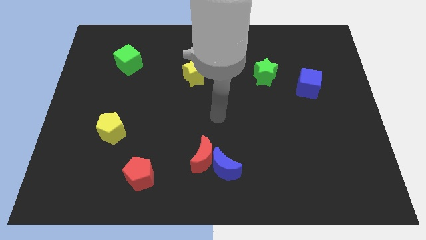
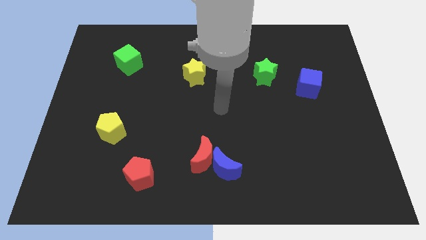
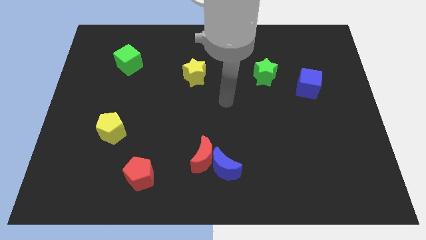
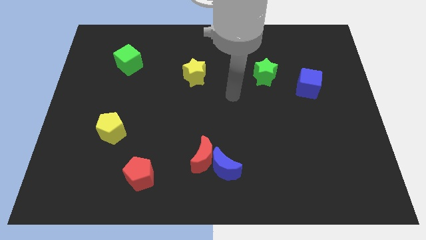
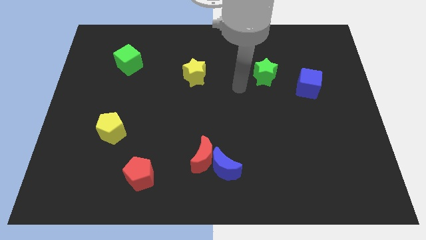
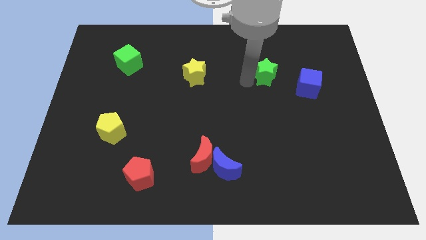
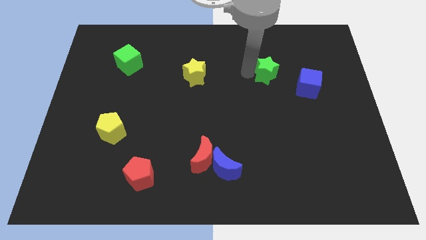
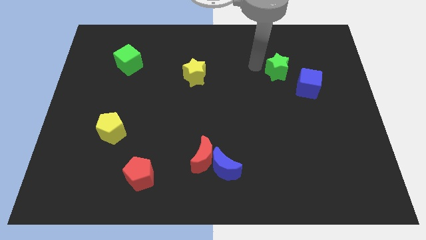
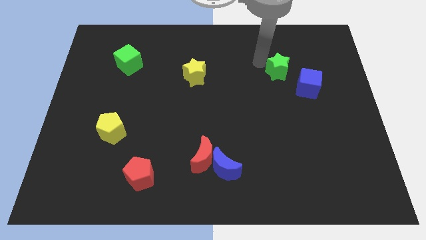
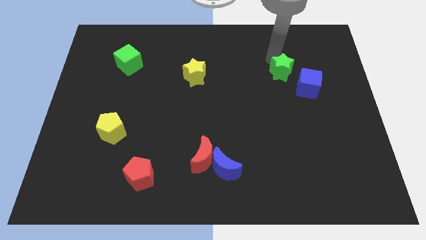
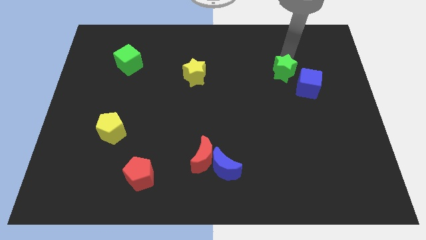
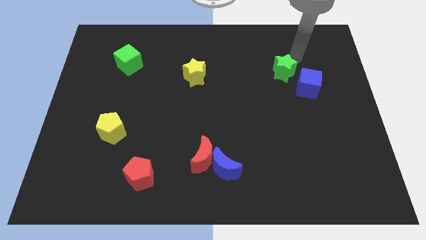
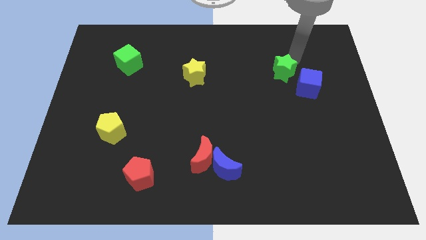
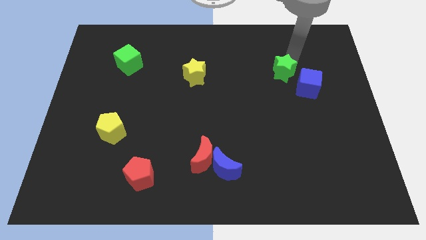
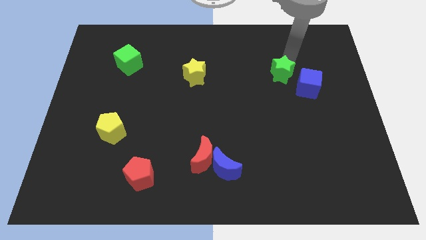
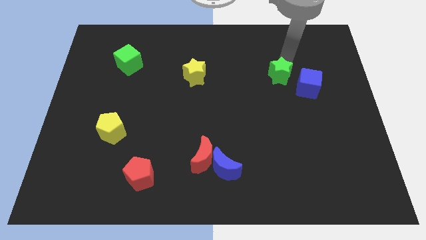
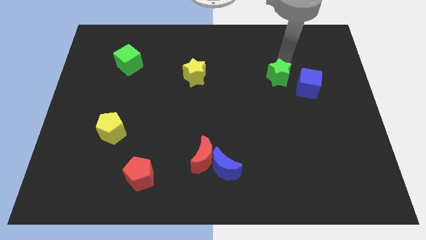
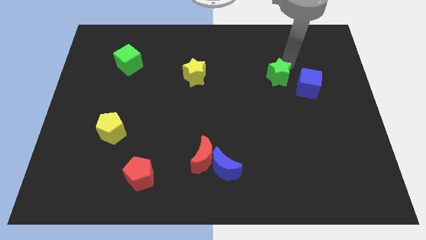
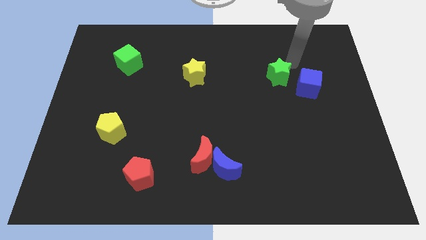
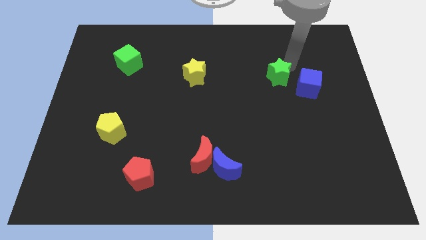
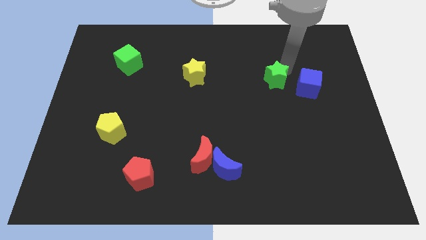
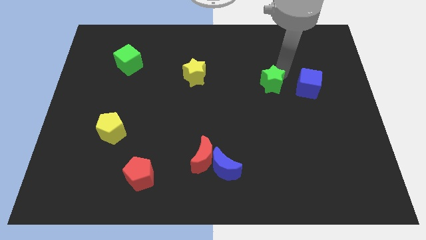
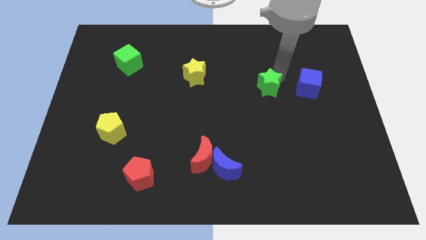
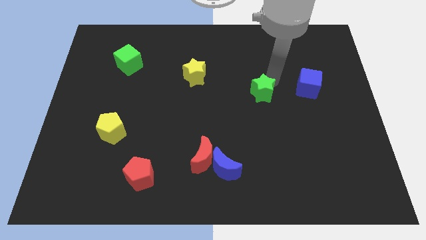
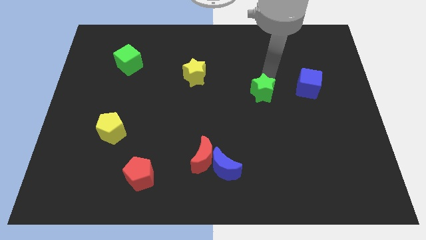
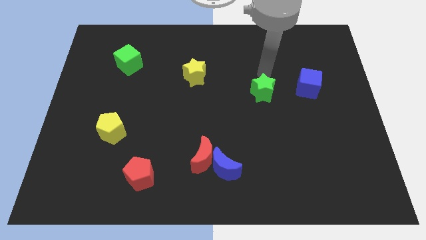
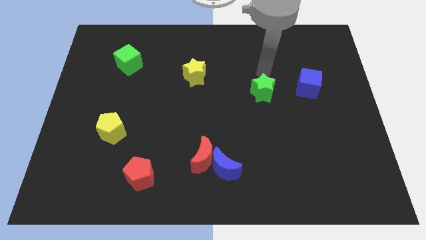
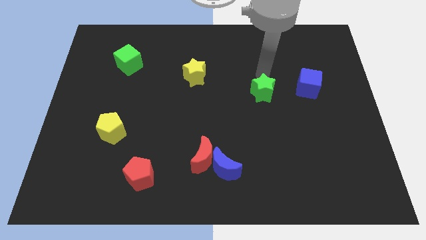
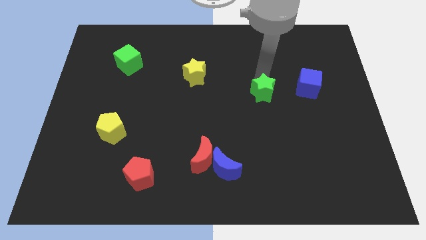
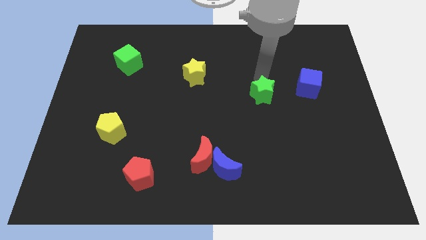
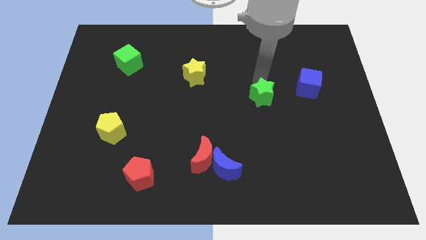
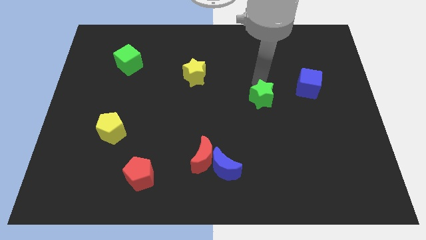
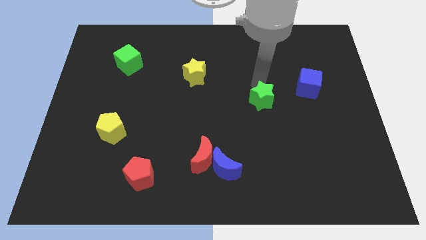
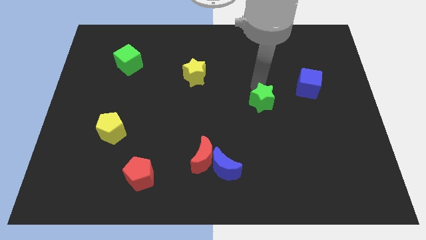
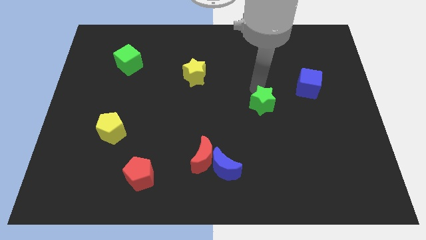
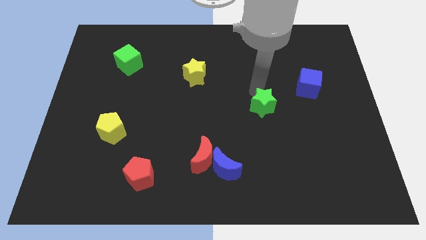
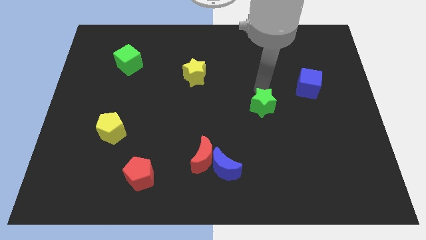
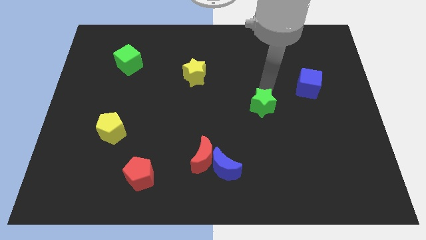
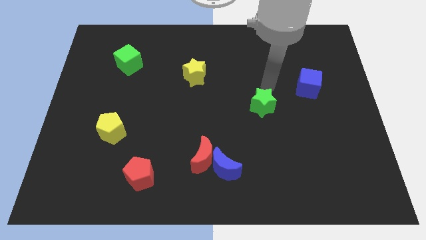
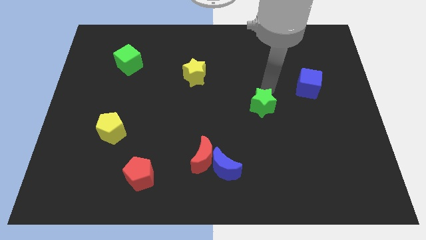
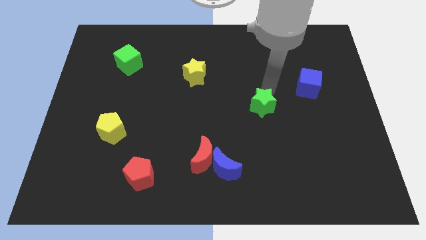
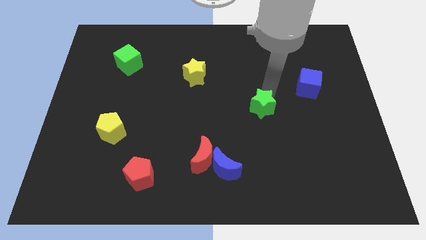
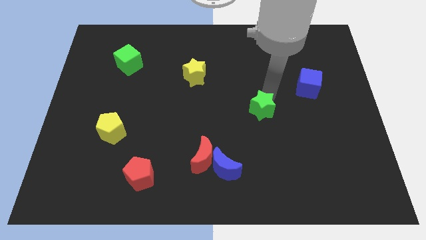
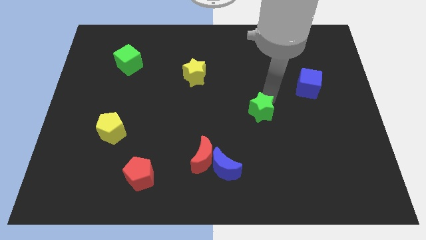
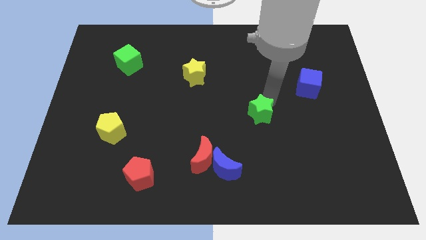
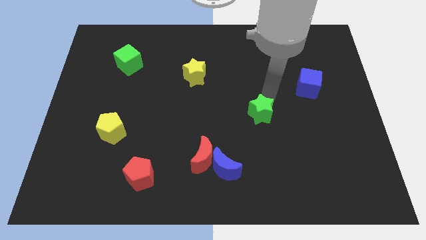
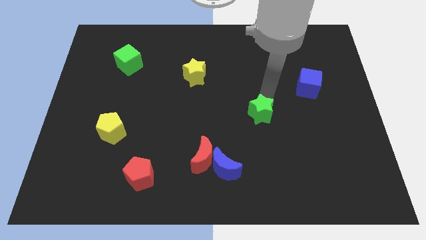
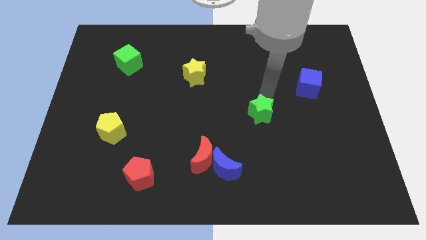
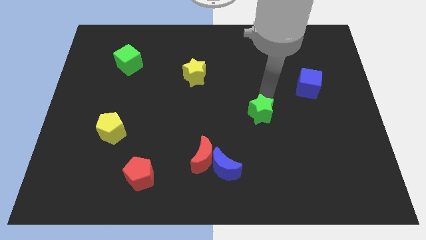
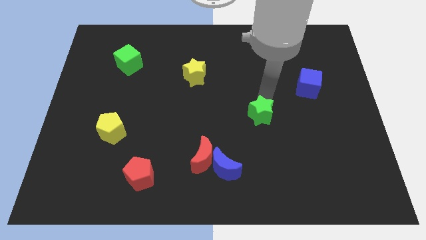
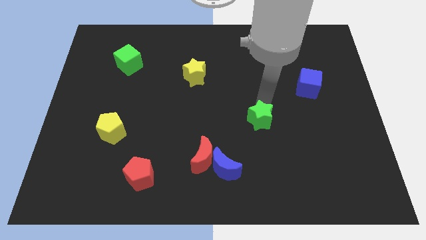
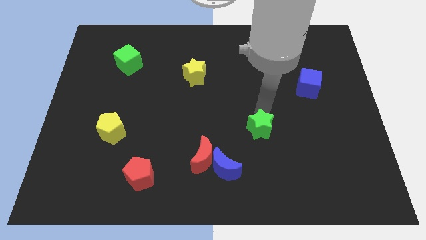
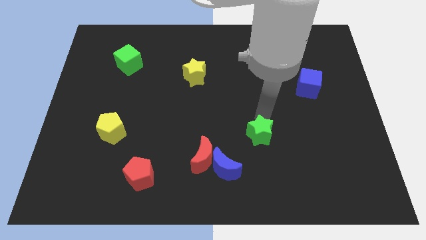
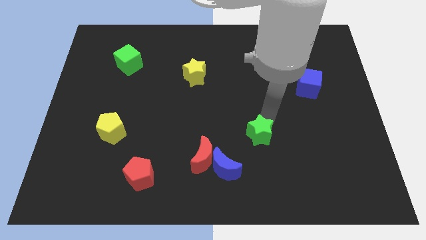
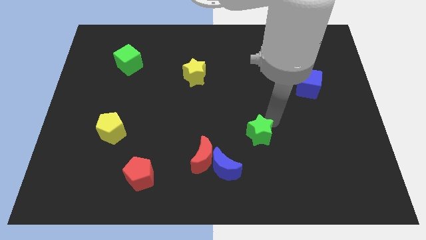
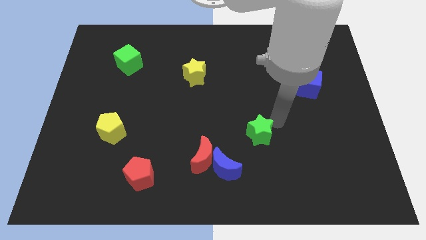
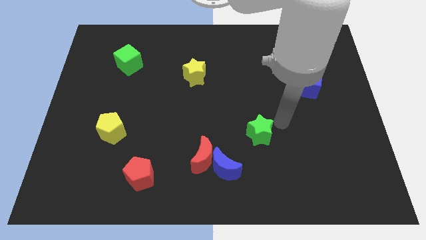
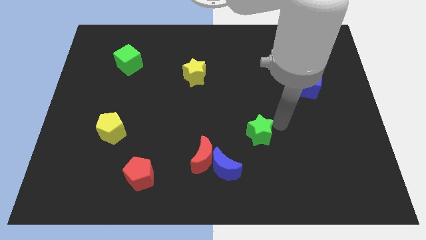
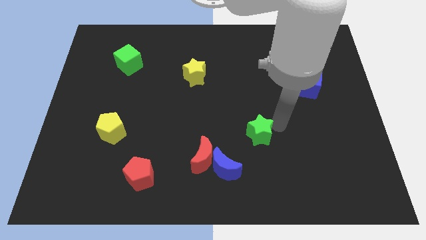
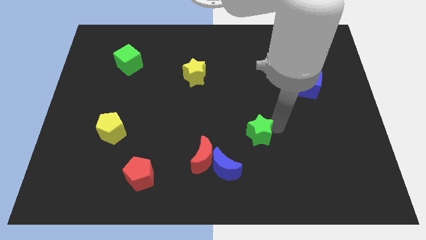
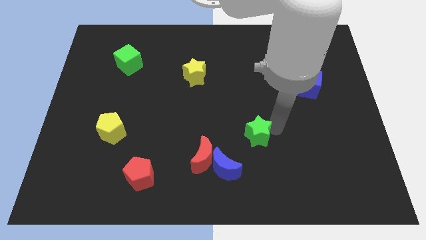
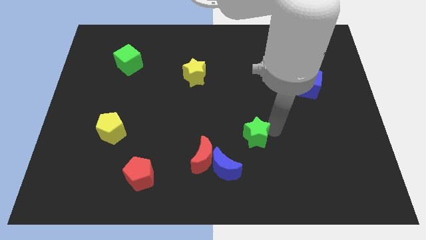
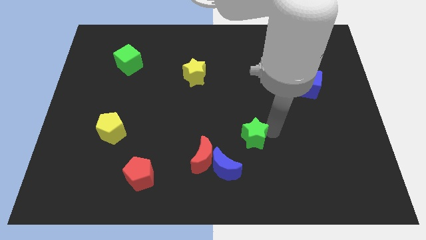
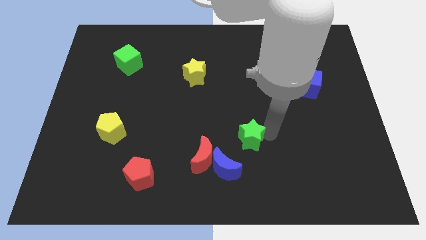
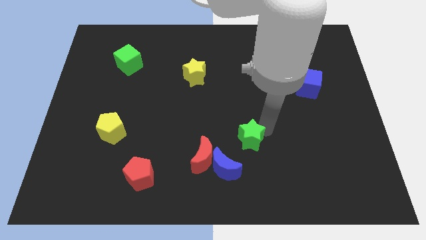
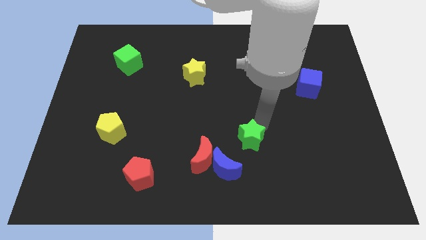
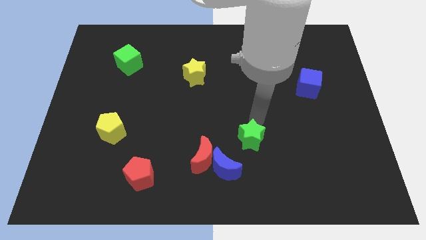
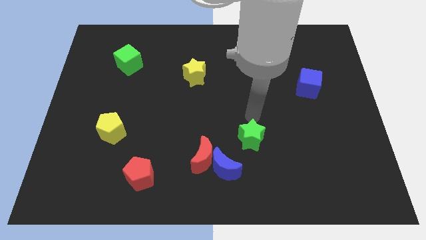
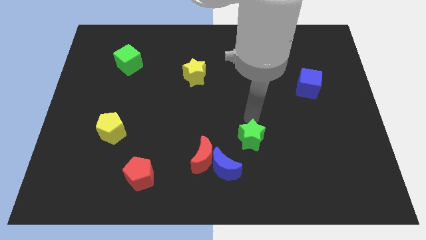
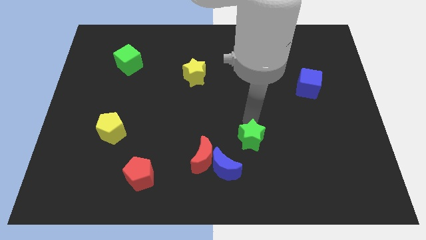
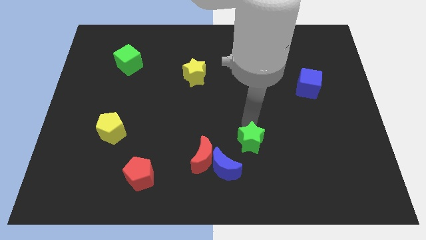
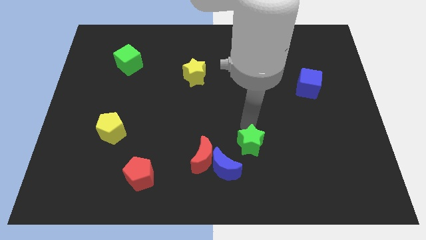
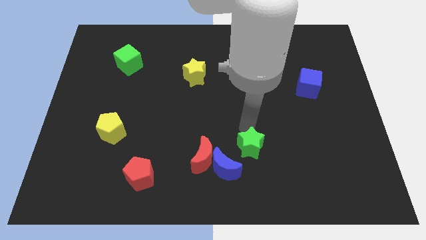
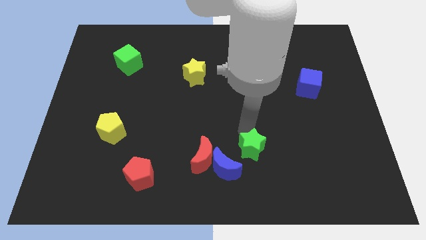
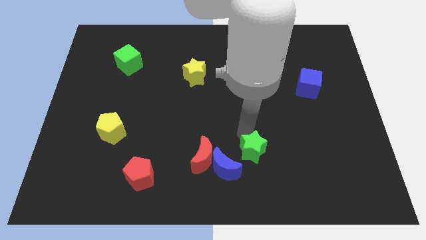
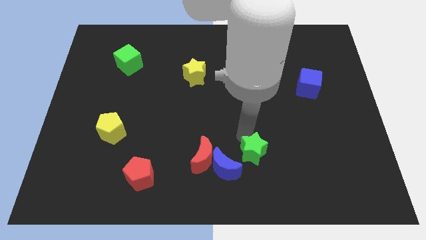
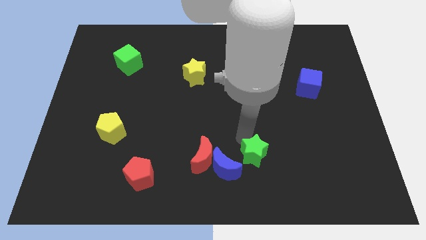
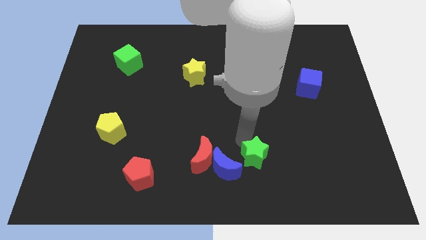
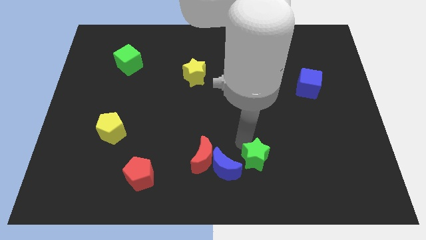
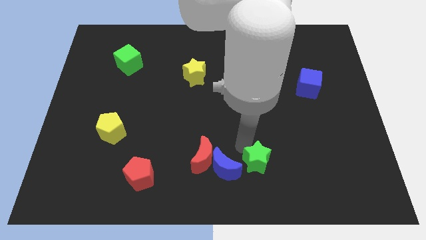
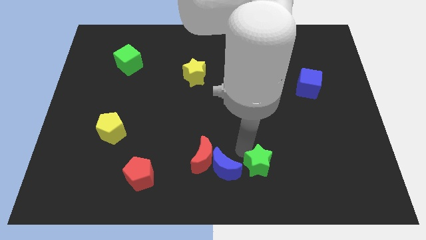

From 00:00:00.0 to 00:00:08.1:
move the green star to the bottom side
